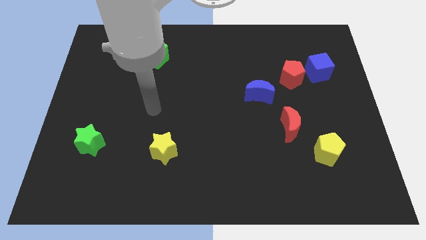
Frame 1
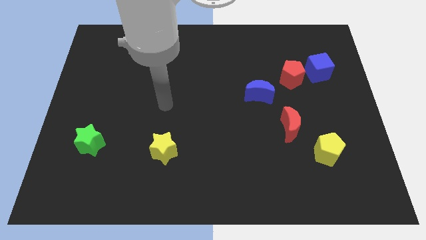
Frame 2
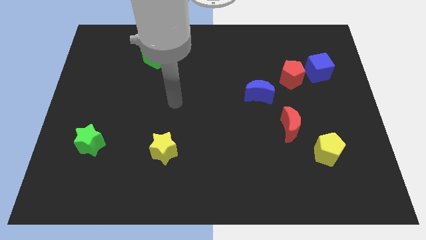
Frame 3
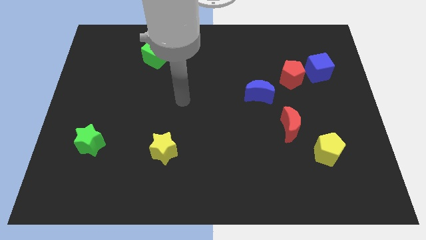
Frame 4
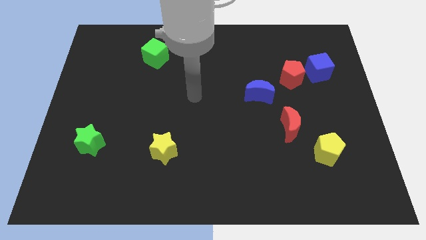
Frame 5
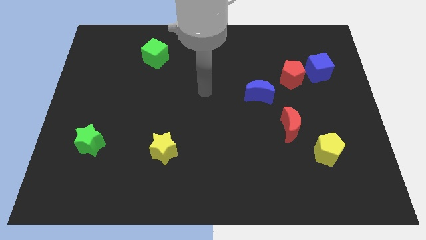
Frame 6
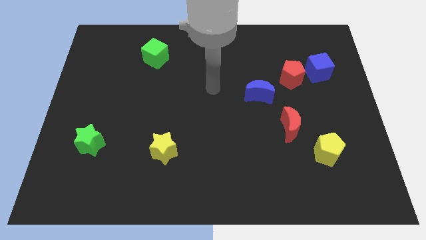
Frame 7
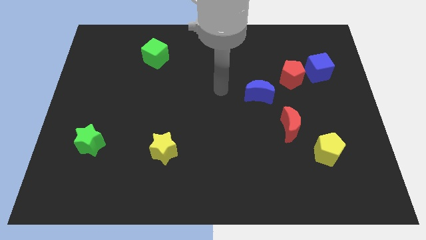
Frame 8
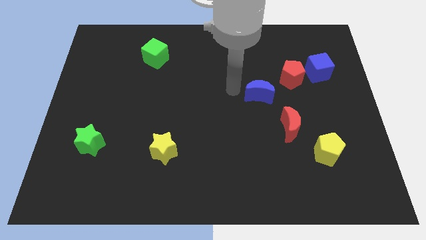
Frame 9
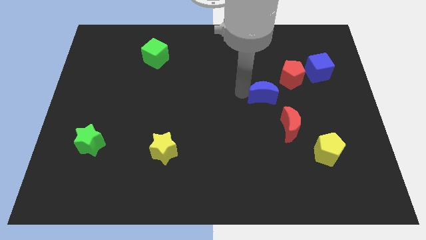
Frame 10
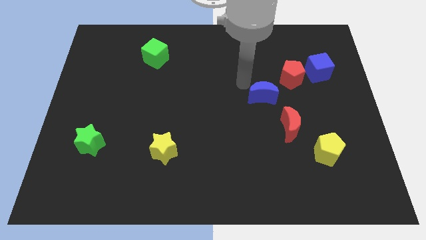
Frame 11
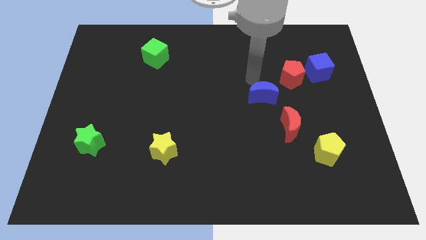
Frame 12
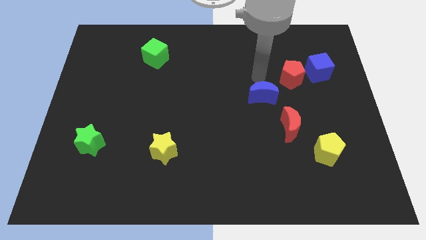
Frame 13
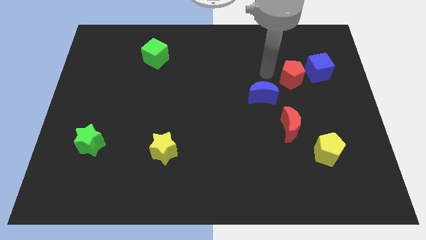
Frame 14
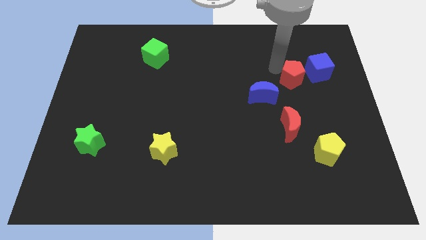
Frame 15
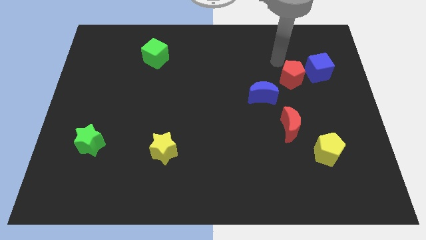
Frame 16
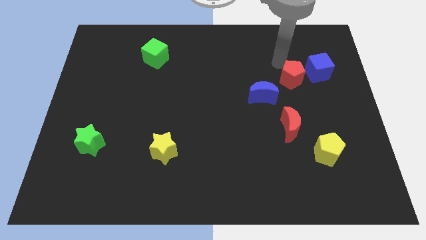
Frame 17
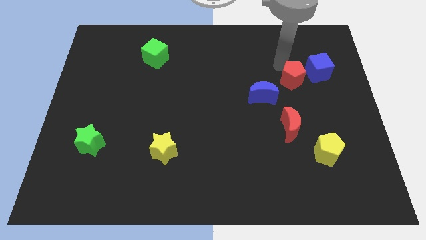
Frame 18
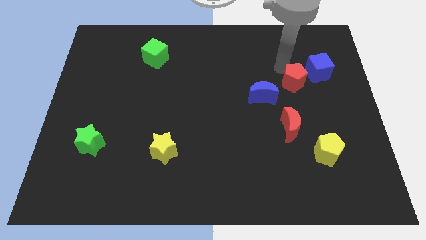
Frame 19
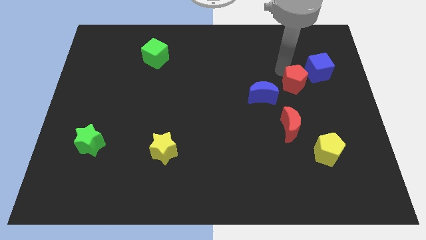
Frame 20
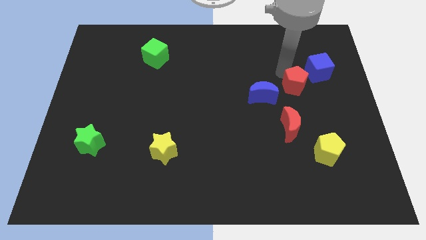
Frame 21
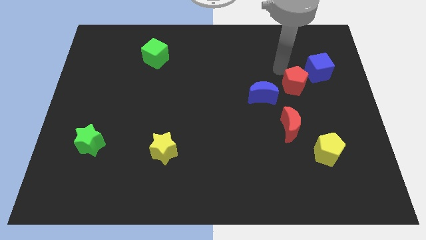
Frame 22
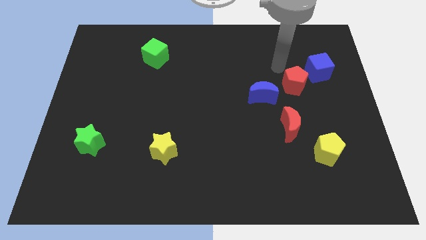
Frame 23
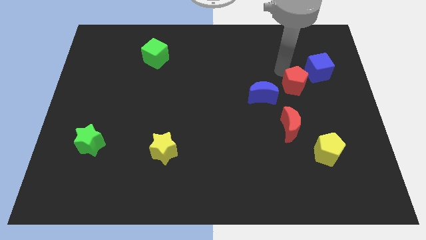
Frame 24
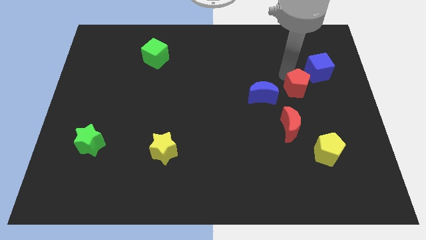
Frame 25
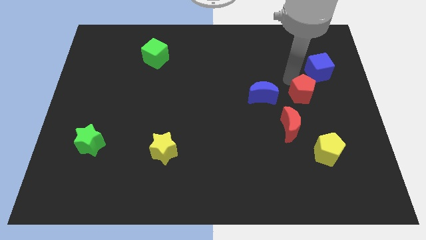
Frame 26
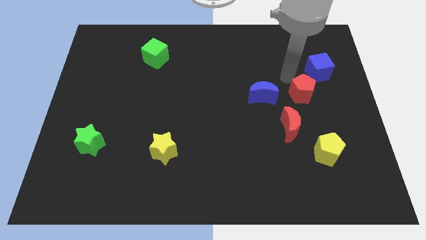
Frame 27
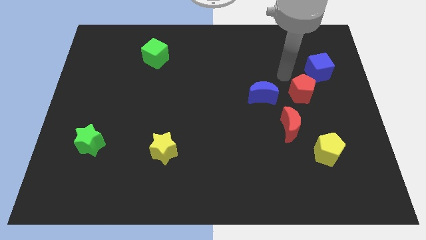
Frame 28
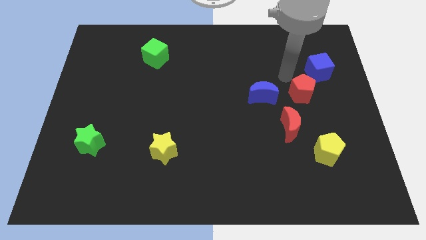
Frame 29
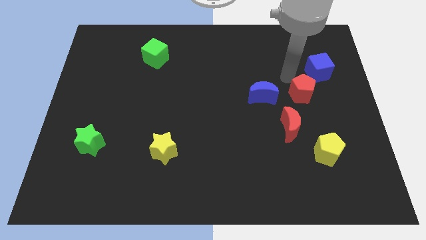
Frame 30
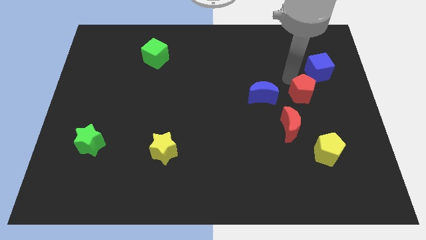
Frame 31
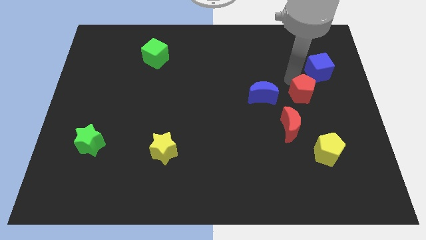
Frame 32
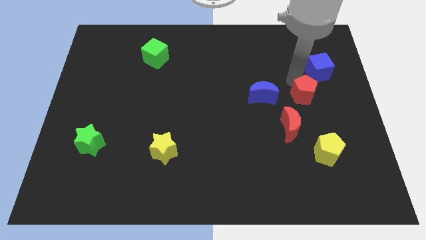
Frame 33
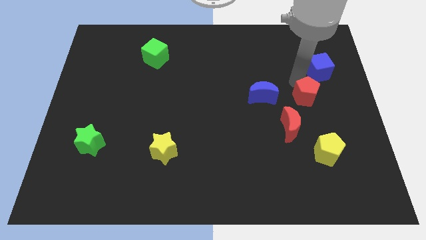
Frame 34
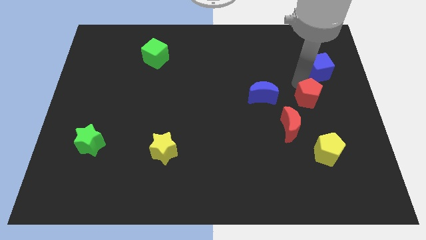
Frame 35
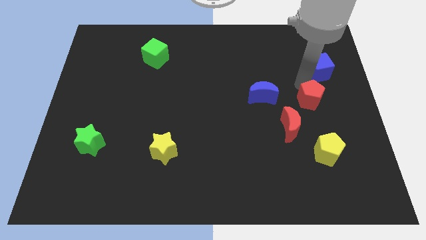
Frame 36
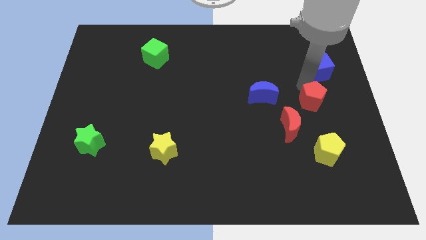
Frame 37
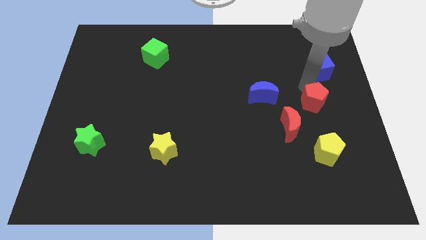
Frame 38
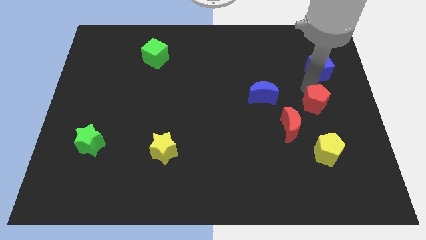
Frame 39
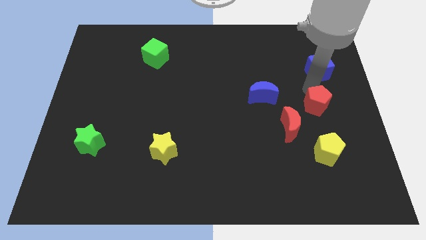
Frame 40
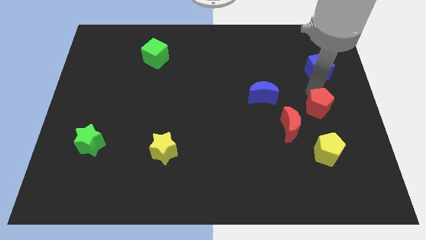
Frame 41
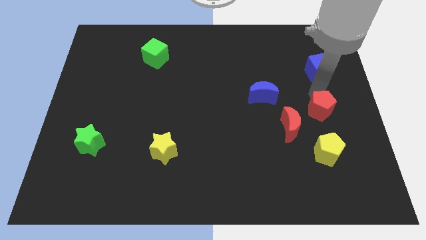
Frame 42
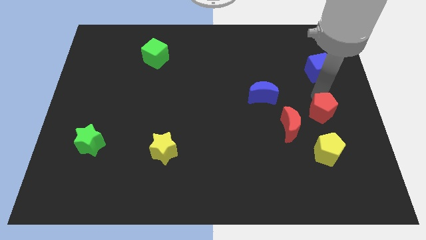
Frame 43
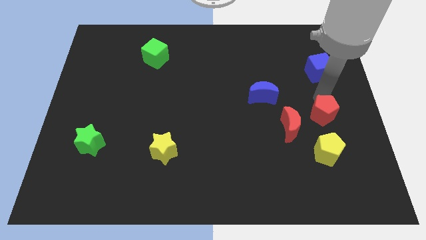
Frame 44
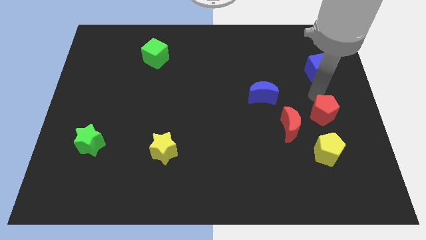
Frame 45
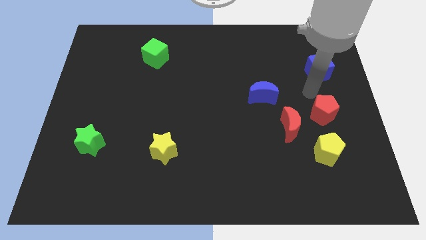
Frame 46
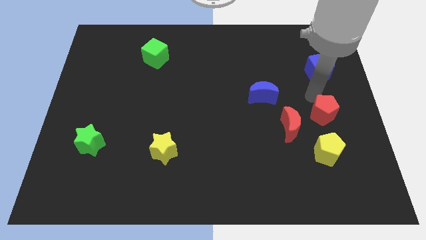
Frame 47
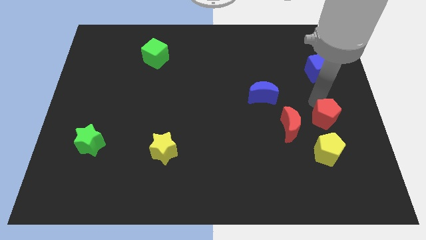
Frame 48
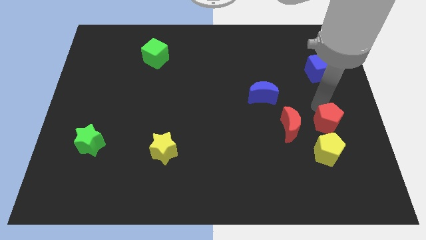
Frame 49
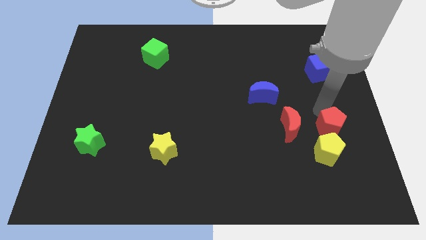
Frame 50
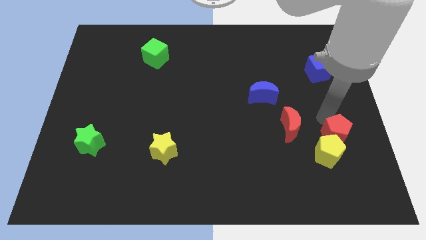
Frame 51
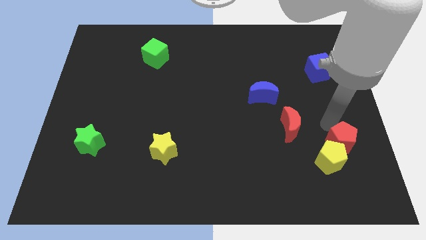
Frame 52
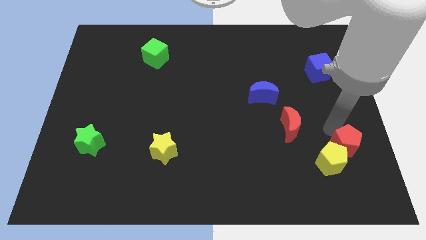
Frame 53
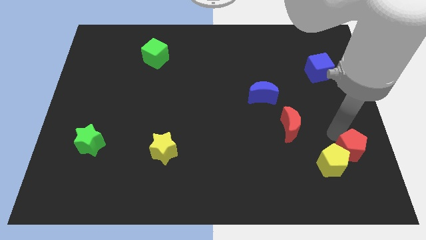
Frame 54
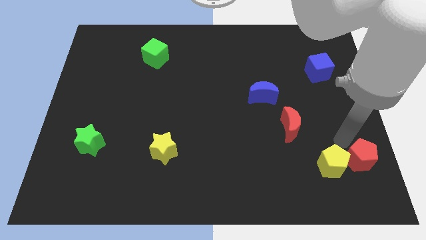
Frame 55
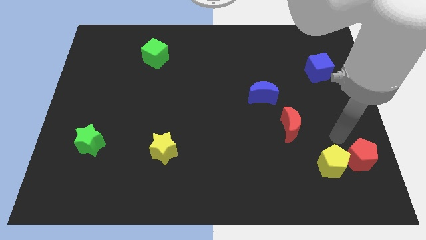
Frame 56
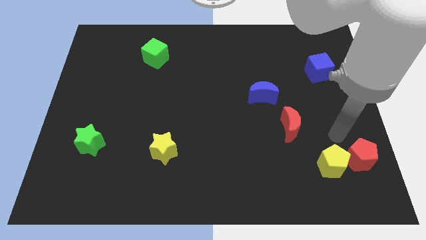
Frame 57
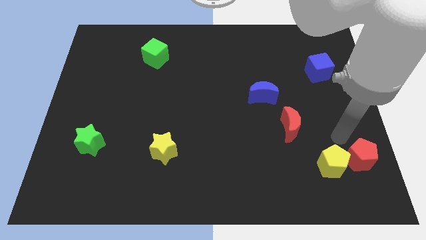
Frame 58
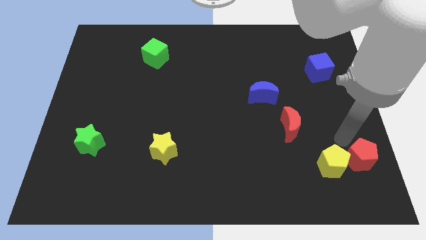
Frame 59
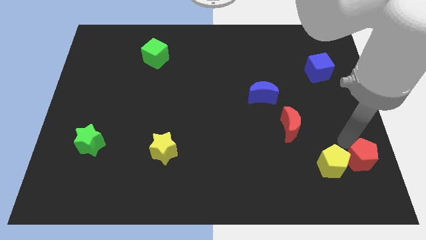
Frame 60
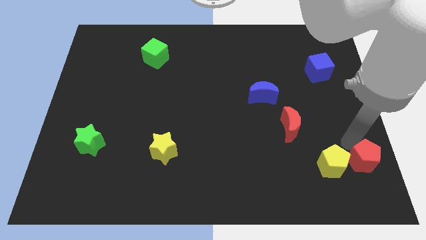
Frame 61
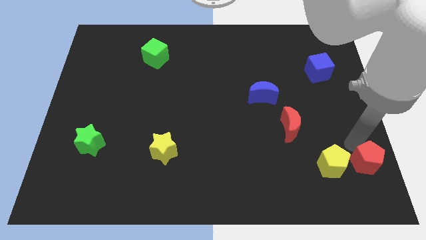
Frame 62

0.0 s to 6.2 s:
move the red pentagon to the bottom right
